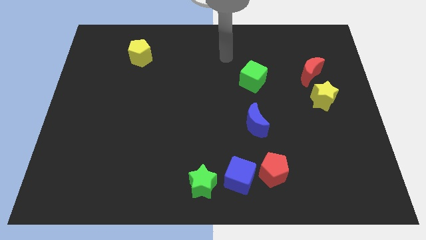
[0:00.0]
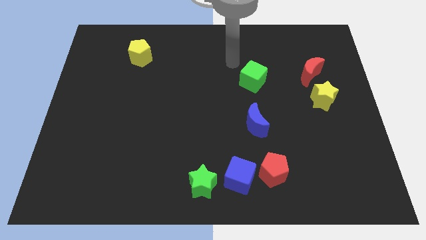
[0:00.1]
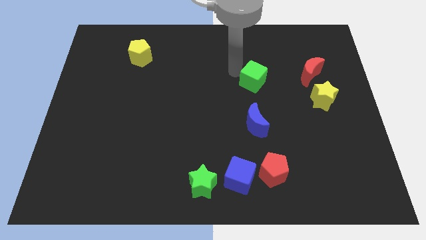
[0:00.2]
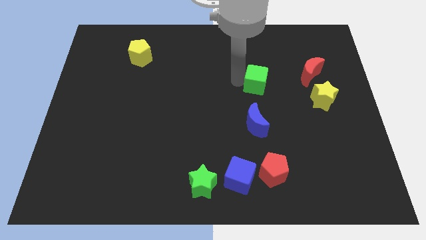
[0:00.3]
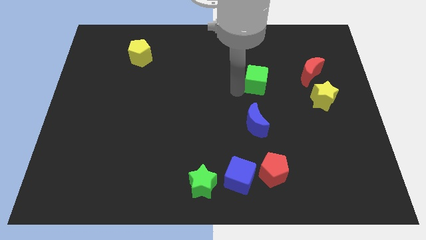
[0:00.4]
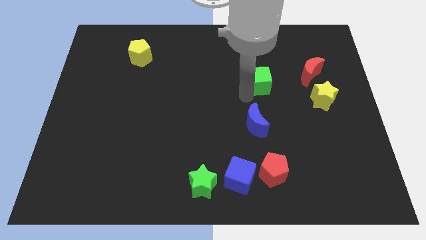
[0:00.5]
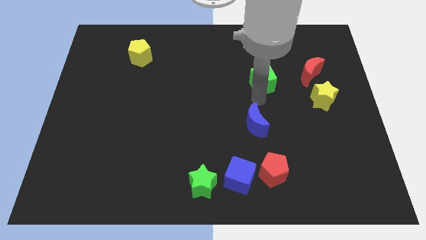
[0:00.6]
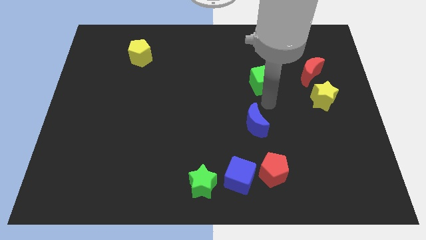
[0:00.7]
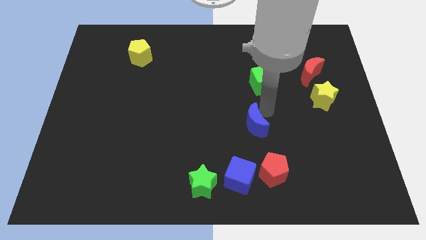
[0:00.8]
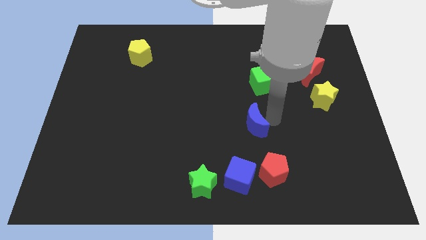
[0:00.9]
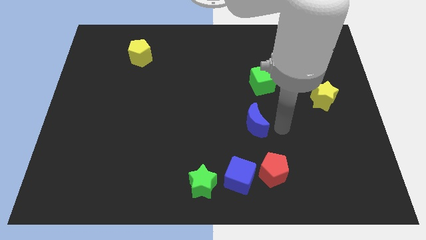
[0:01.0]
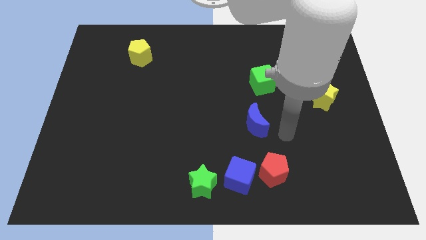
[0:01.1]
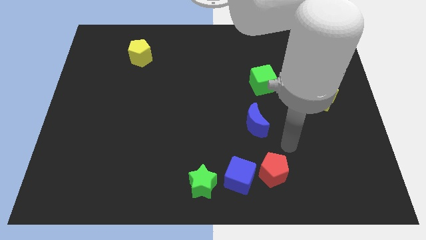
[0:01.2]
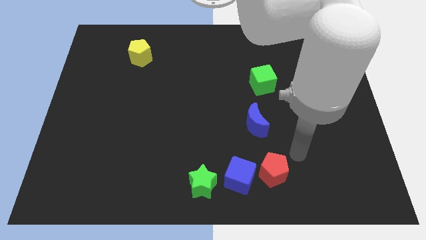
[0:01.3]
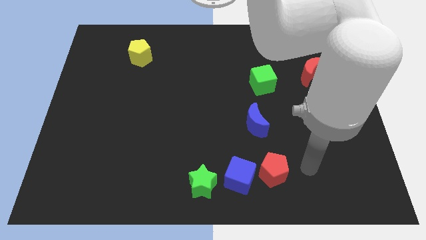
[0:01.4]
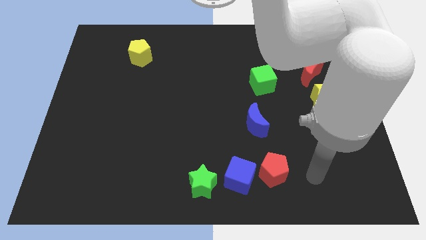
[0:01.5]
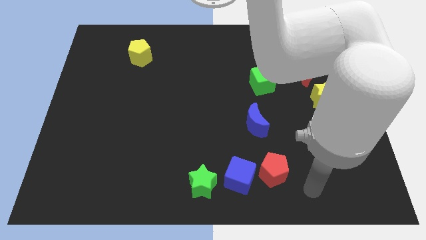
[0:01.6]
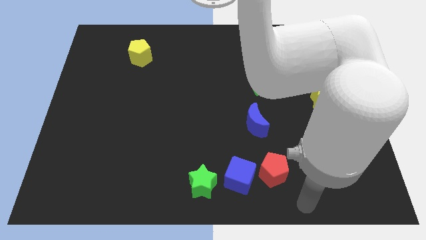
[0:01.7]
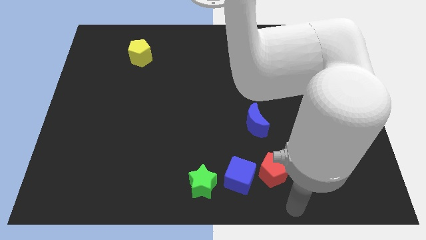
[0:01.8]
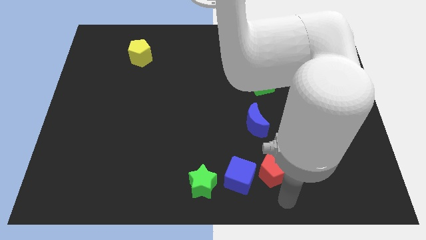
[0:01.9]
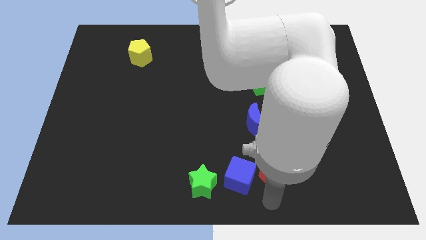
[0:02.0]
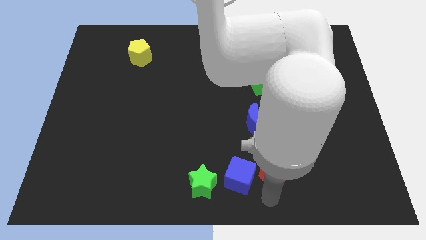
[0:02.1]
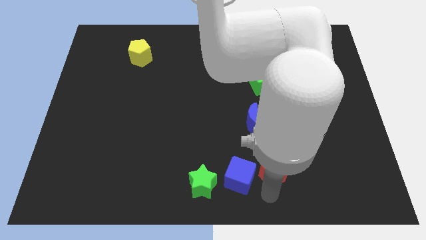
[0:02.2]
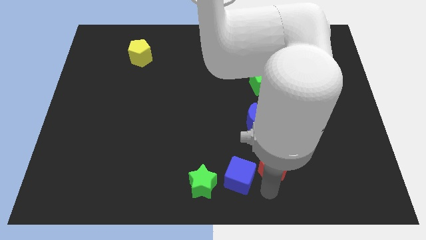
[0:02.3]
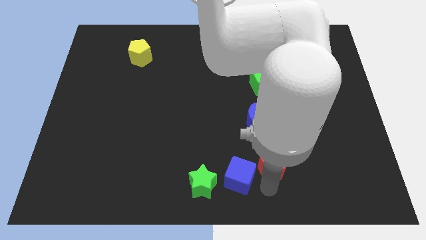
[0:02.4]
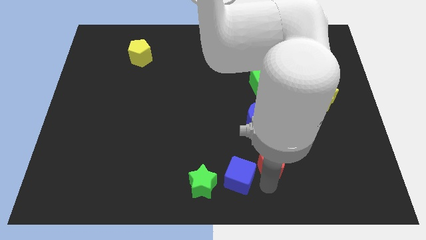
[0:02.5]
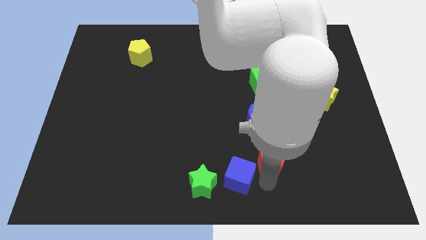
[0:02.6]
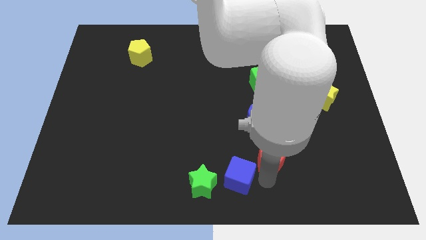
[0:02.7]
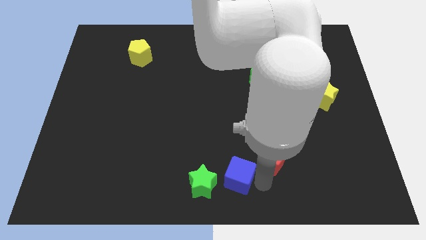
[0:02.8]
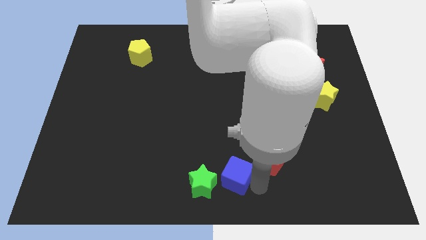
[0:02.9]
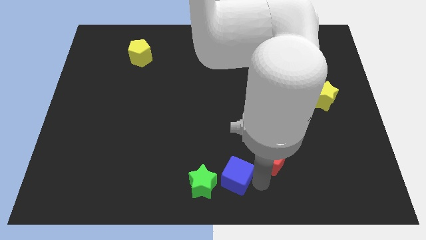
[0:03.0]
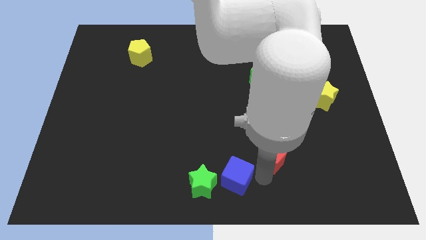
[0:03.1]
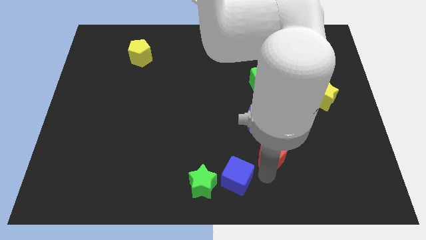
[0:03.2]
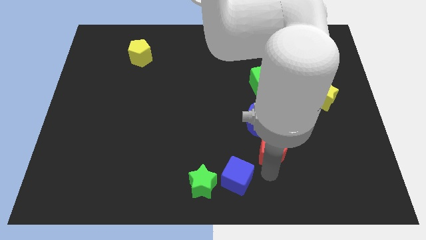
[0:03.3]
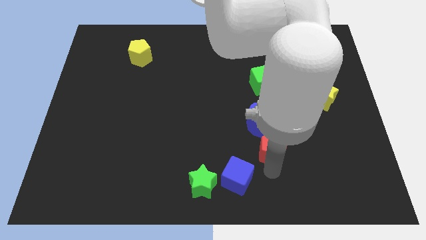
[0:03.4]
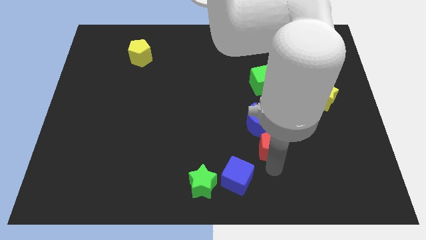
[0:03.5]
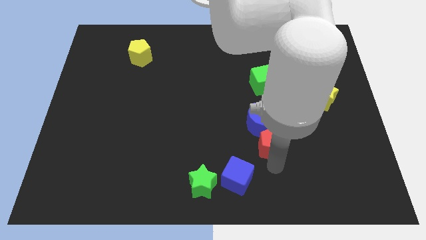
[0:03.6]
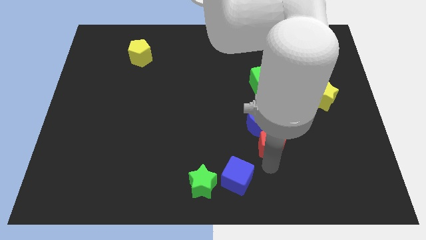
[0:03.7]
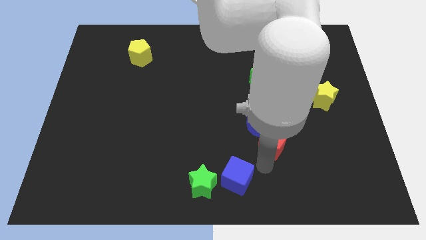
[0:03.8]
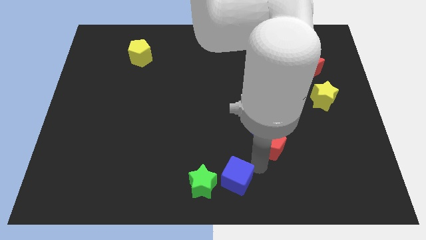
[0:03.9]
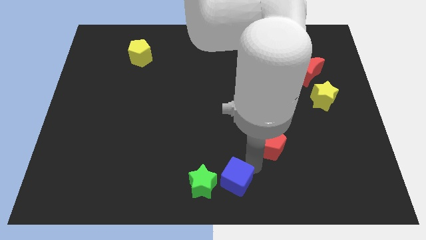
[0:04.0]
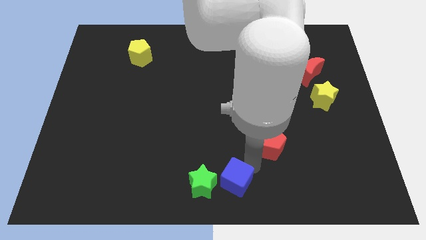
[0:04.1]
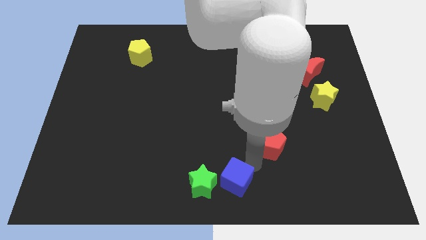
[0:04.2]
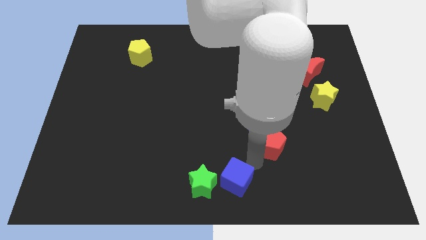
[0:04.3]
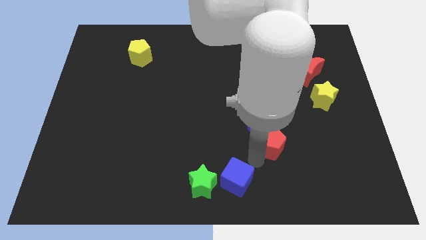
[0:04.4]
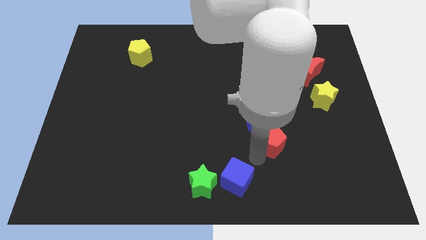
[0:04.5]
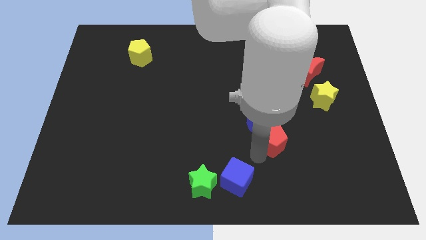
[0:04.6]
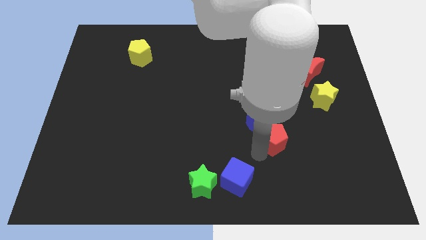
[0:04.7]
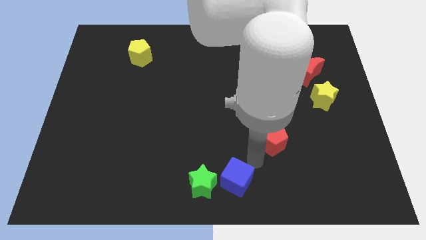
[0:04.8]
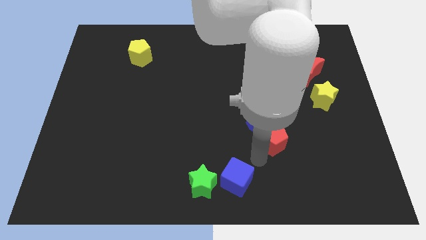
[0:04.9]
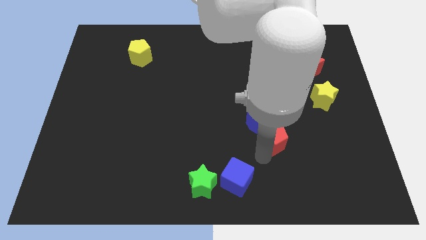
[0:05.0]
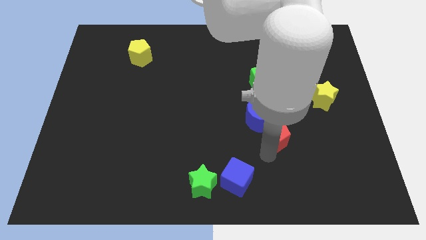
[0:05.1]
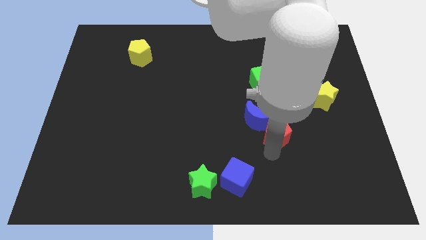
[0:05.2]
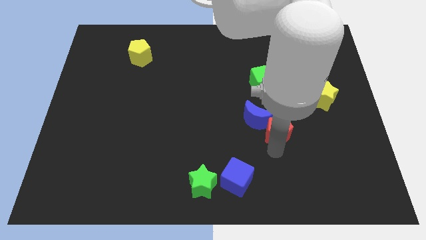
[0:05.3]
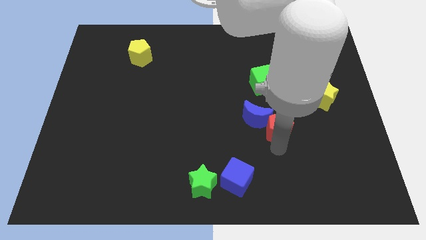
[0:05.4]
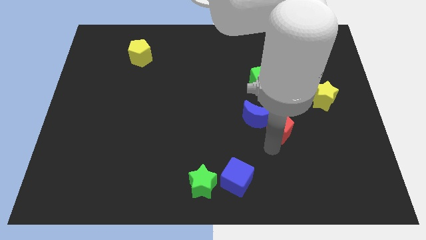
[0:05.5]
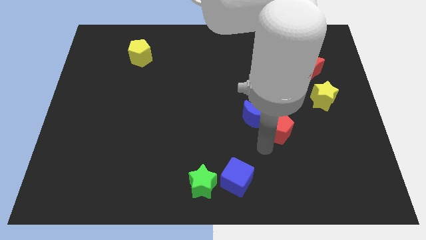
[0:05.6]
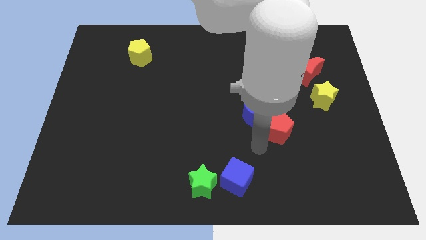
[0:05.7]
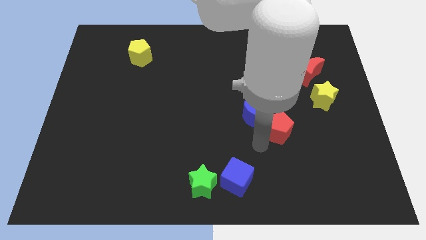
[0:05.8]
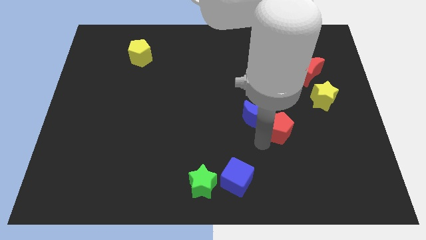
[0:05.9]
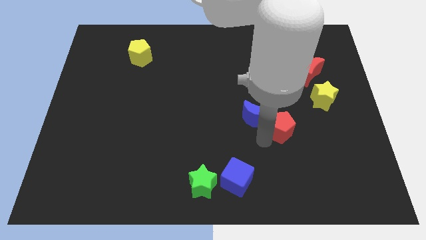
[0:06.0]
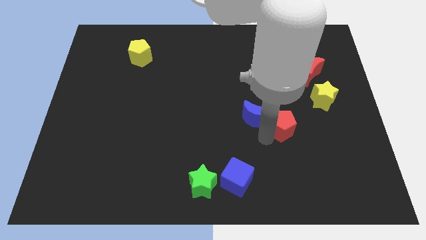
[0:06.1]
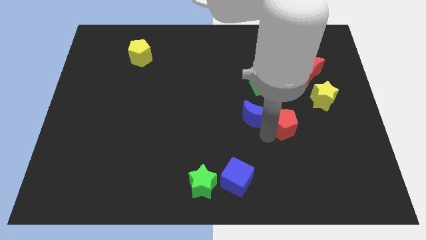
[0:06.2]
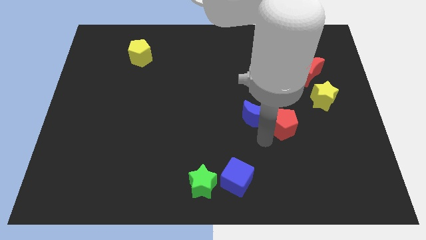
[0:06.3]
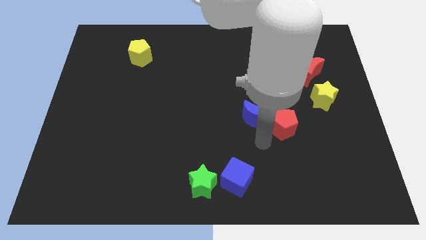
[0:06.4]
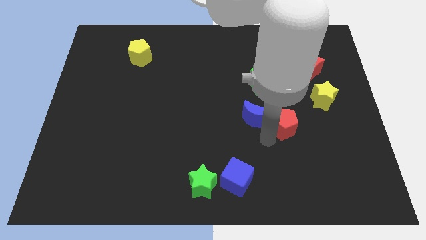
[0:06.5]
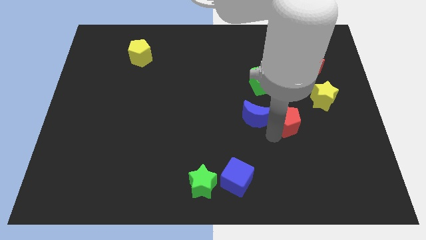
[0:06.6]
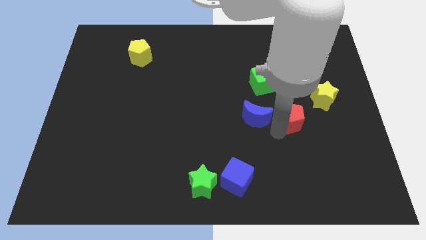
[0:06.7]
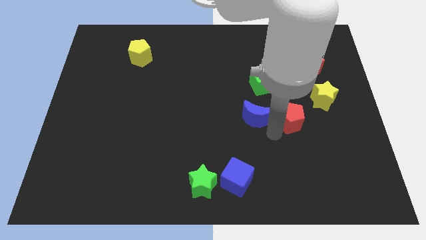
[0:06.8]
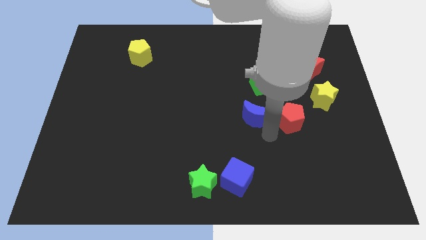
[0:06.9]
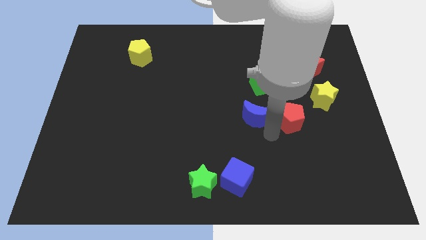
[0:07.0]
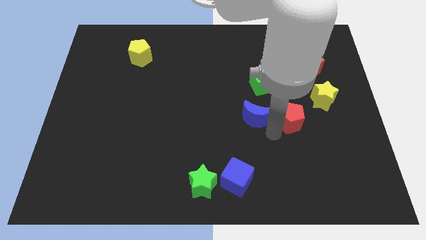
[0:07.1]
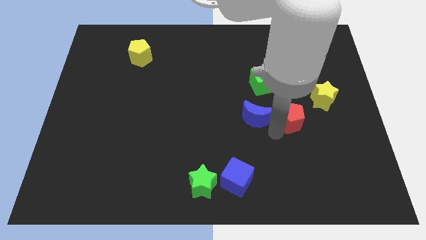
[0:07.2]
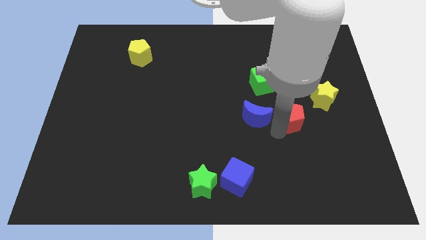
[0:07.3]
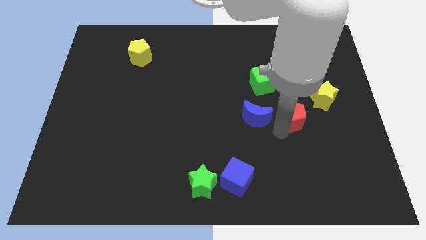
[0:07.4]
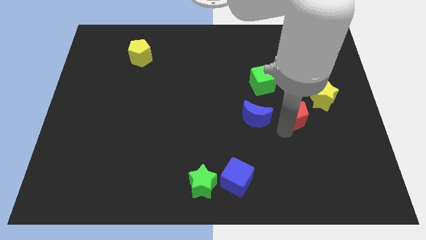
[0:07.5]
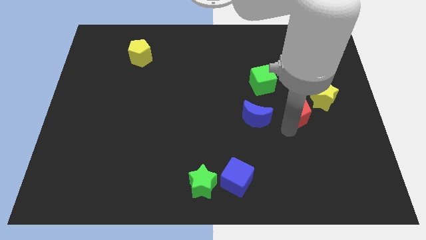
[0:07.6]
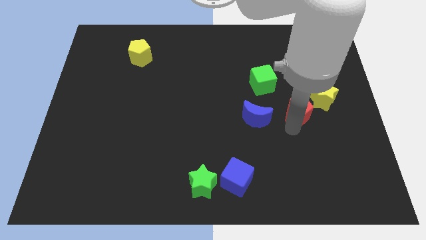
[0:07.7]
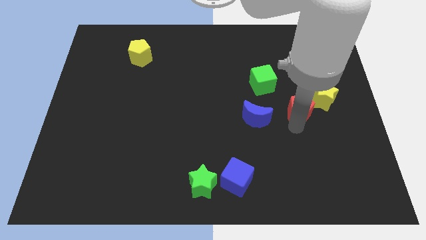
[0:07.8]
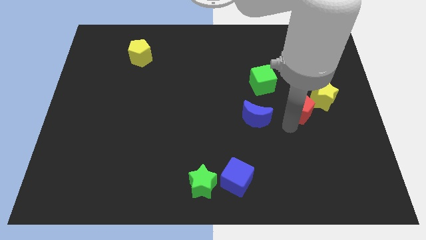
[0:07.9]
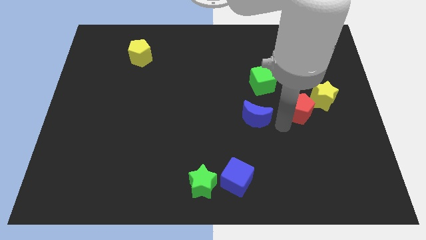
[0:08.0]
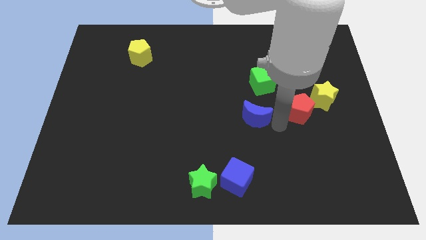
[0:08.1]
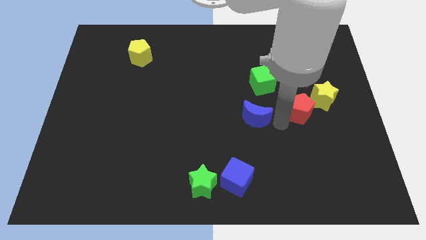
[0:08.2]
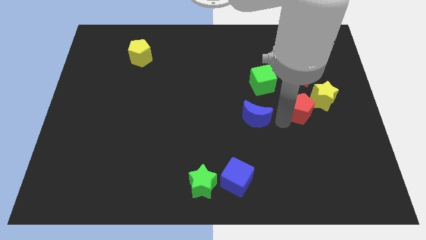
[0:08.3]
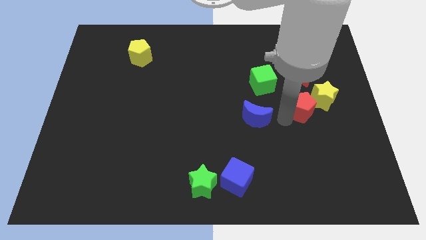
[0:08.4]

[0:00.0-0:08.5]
push the red pentagon next to the yellow star
